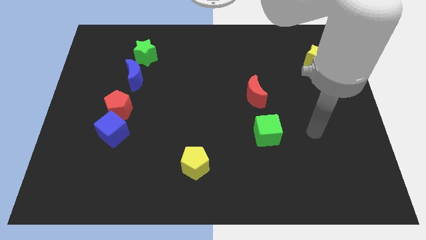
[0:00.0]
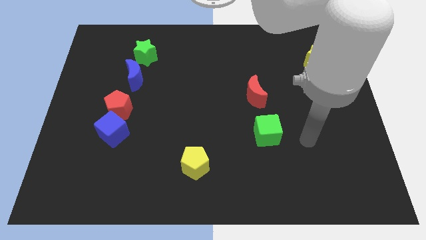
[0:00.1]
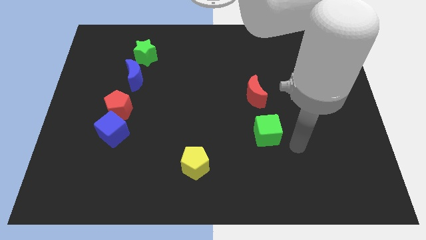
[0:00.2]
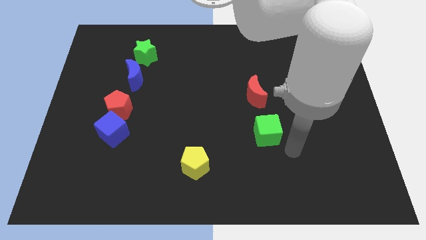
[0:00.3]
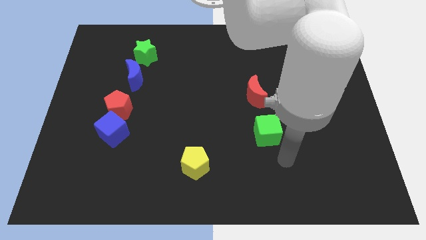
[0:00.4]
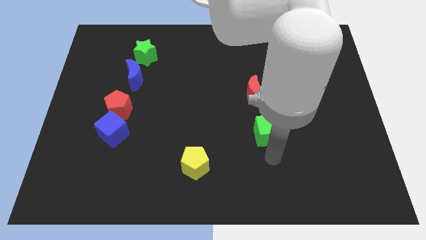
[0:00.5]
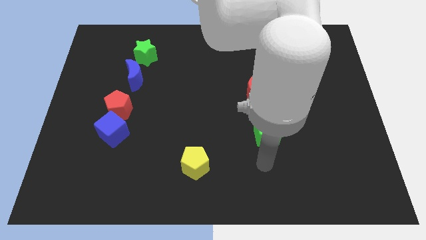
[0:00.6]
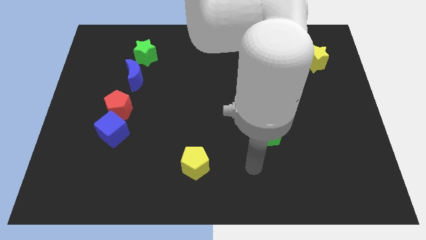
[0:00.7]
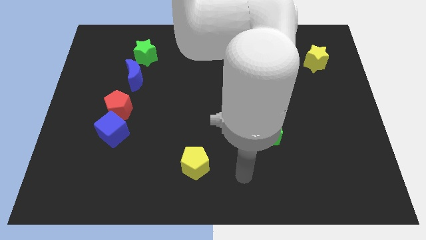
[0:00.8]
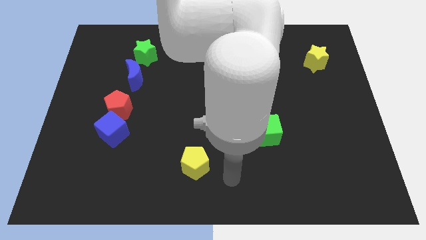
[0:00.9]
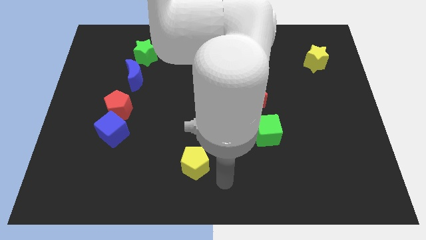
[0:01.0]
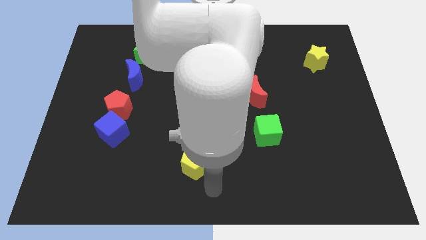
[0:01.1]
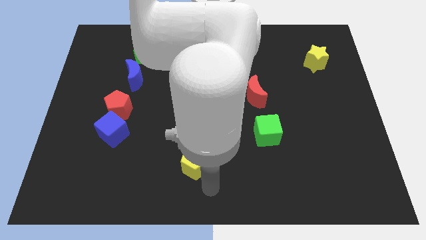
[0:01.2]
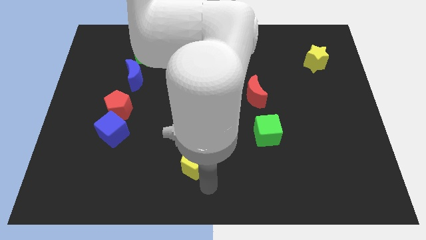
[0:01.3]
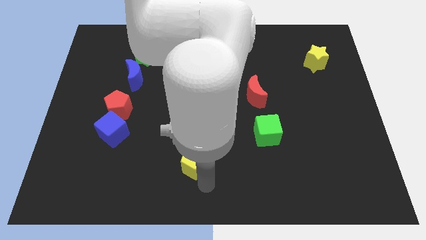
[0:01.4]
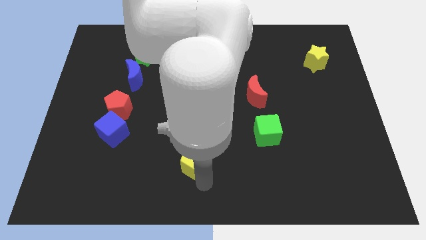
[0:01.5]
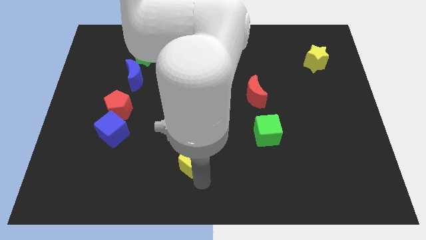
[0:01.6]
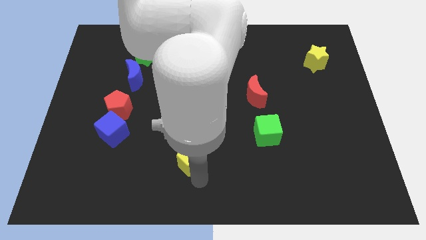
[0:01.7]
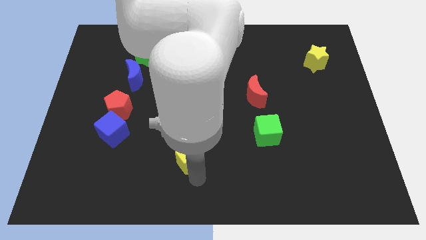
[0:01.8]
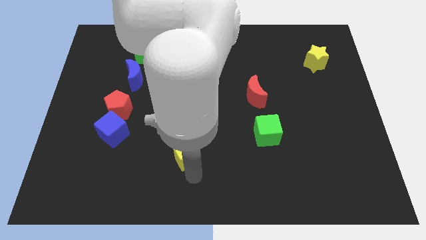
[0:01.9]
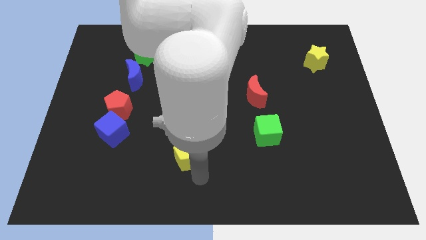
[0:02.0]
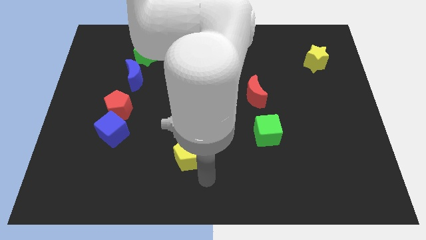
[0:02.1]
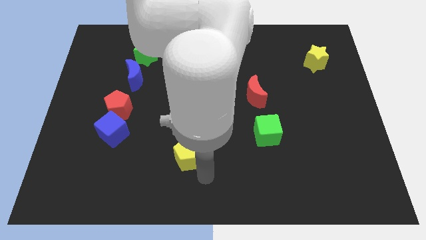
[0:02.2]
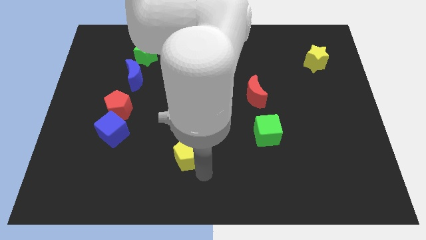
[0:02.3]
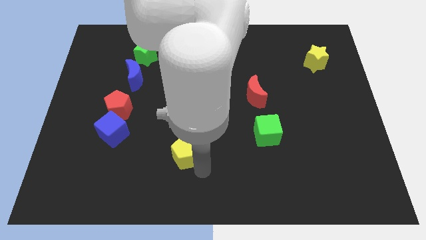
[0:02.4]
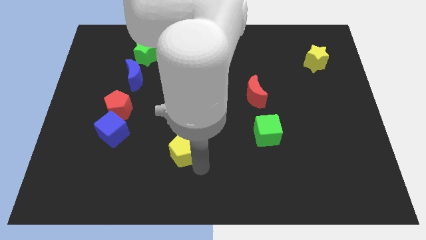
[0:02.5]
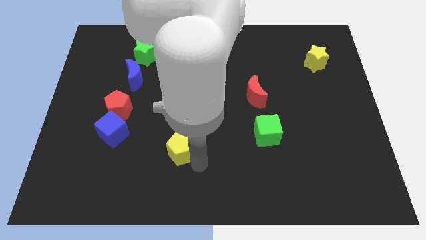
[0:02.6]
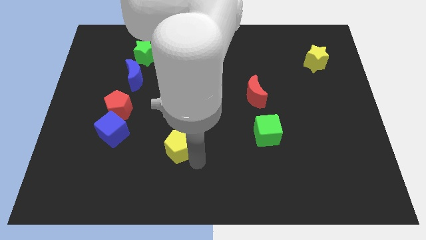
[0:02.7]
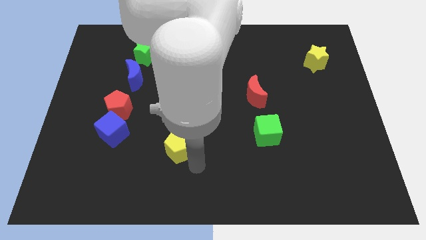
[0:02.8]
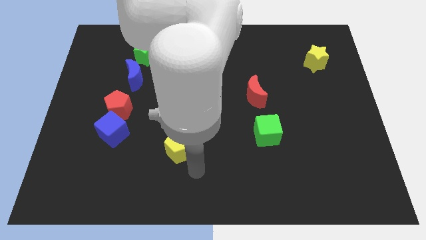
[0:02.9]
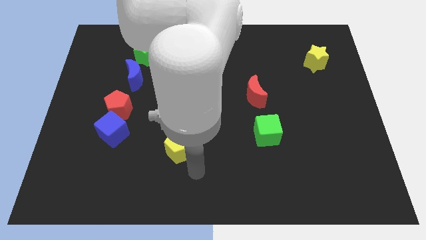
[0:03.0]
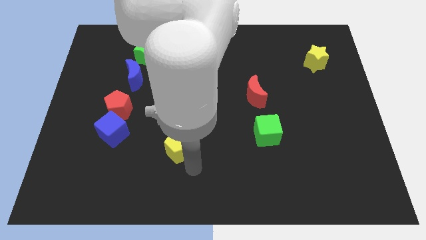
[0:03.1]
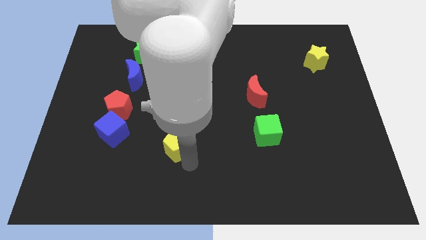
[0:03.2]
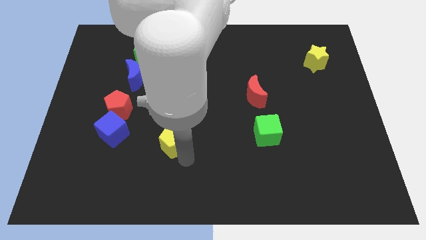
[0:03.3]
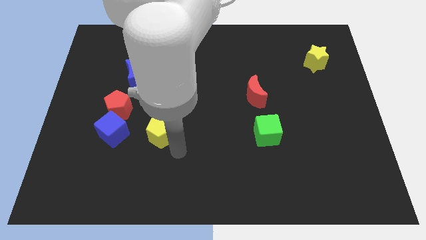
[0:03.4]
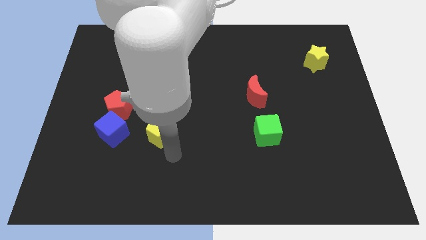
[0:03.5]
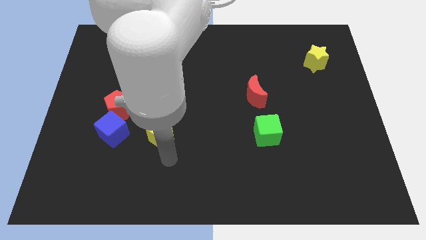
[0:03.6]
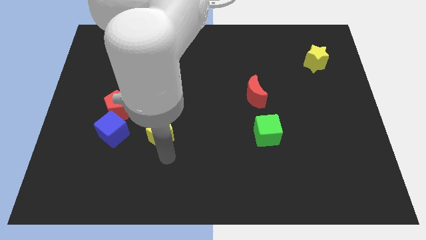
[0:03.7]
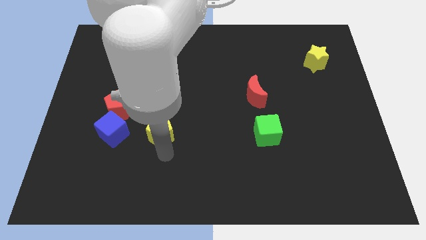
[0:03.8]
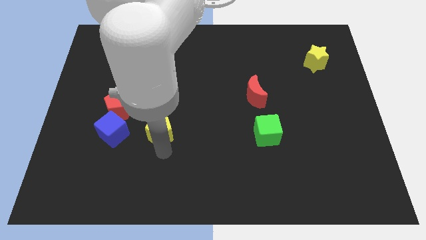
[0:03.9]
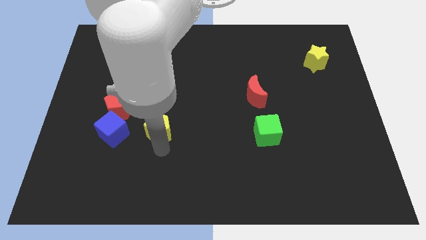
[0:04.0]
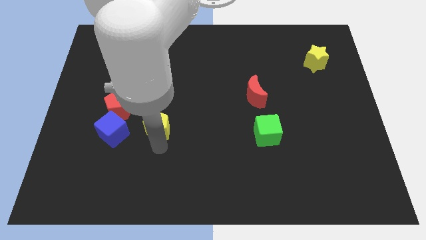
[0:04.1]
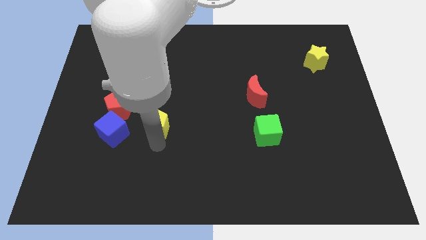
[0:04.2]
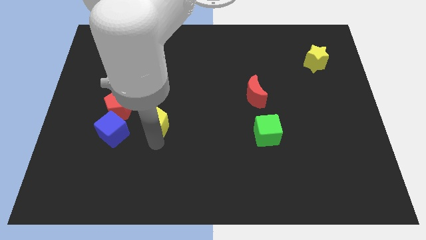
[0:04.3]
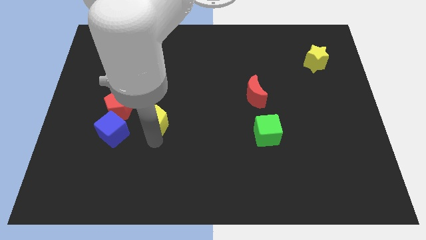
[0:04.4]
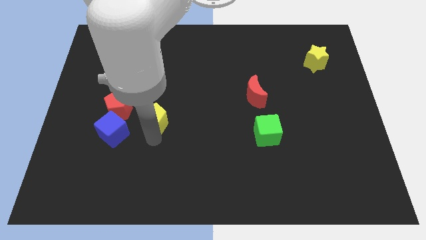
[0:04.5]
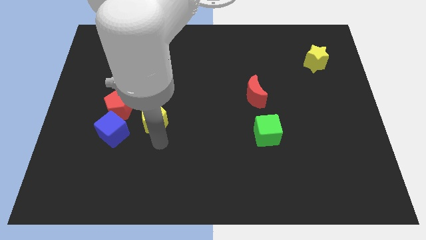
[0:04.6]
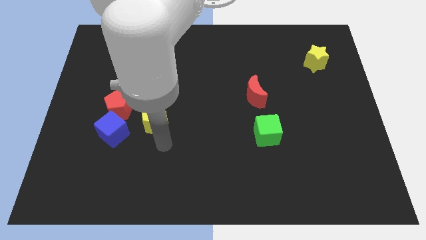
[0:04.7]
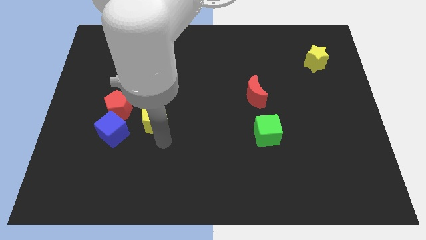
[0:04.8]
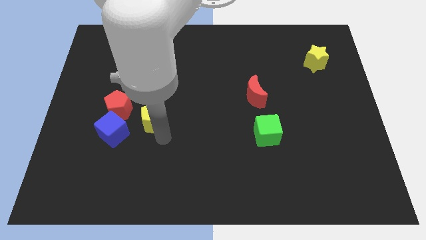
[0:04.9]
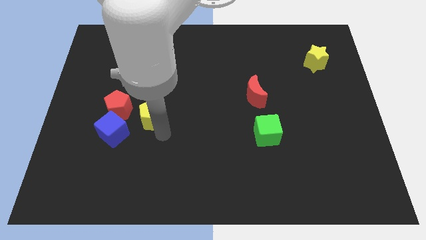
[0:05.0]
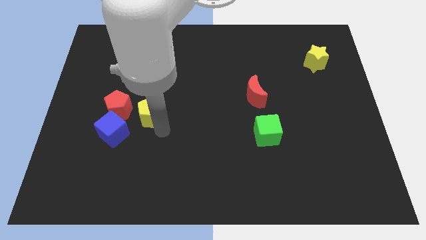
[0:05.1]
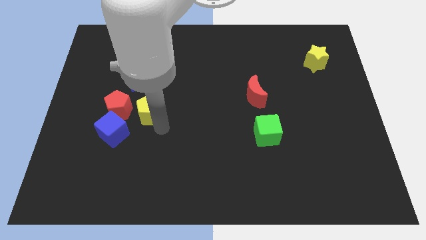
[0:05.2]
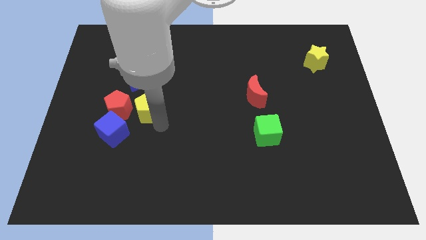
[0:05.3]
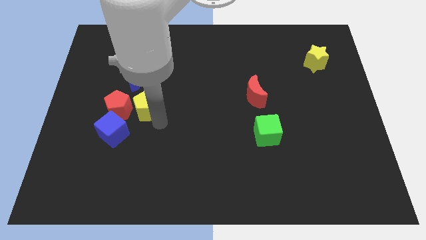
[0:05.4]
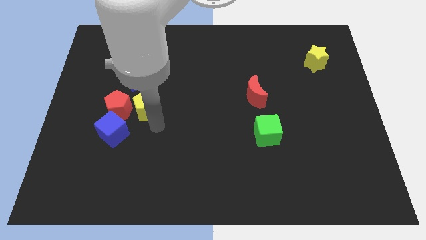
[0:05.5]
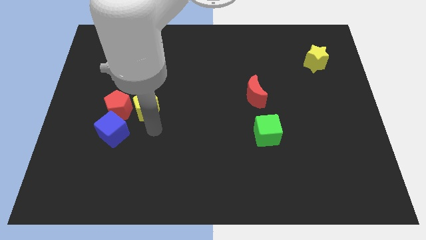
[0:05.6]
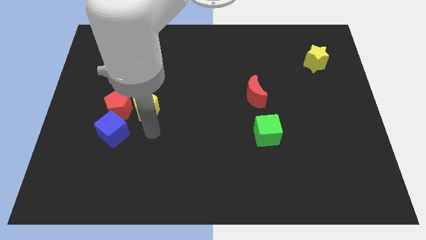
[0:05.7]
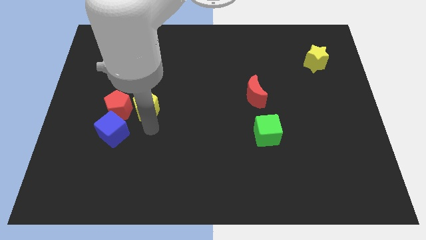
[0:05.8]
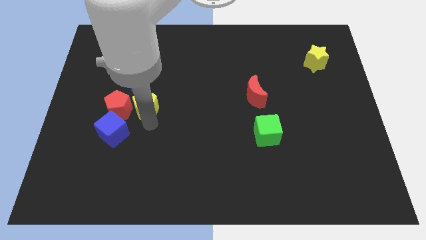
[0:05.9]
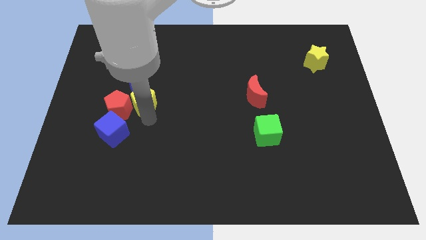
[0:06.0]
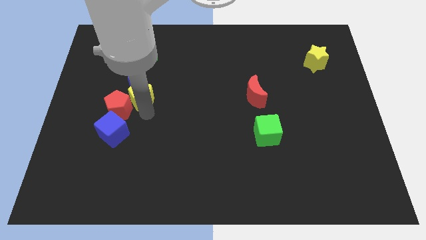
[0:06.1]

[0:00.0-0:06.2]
slide the yellow pentagon below the green star

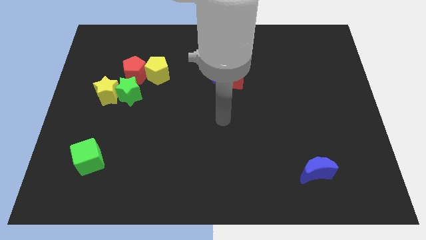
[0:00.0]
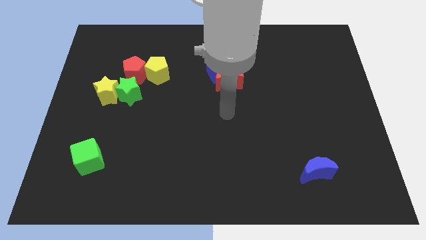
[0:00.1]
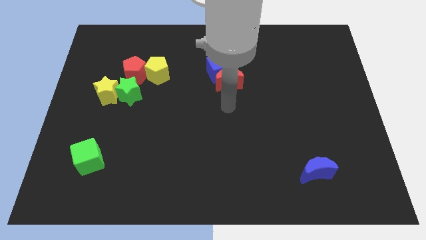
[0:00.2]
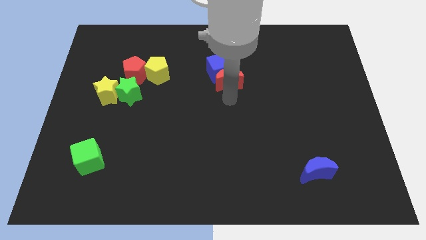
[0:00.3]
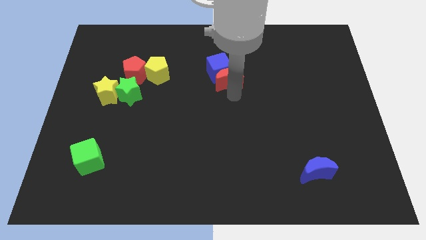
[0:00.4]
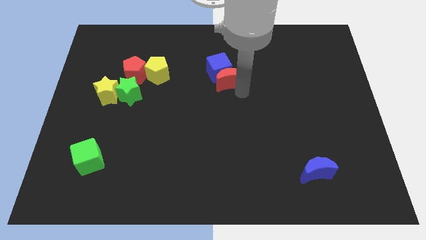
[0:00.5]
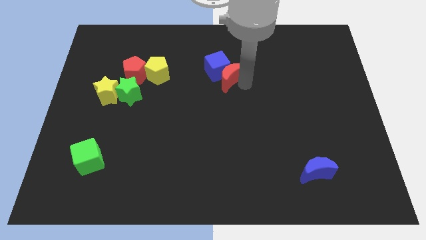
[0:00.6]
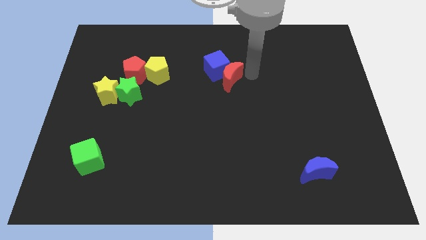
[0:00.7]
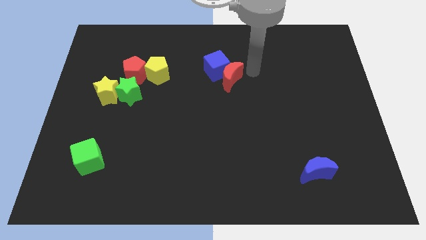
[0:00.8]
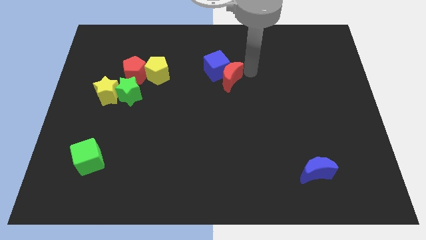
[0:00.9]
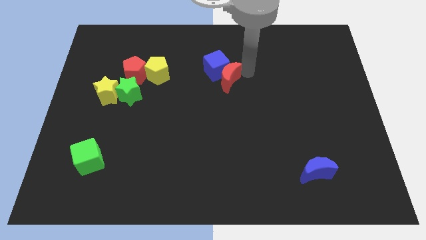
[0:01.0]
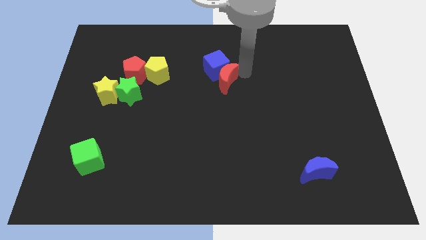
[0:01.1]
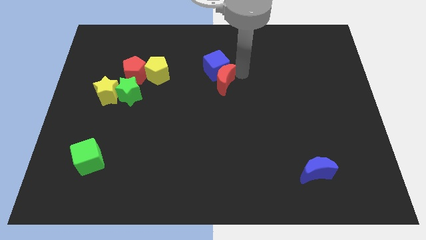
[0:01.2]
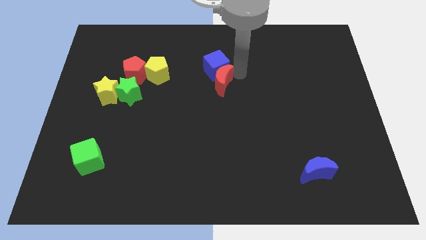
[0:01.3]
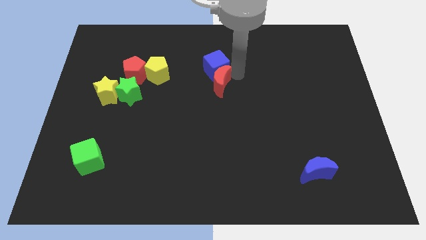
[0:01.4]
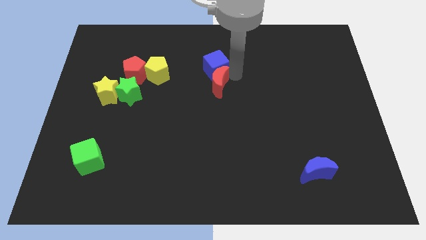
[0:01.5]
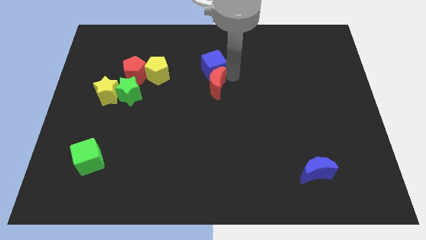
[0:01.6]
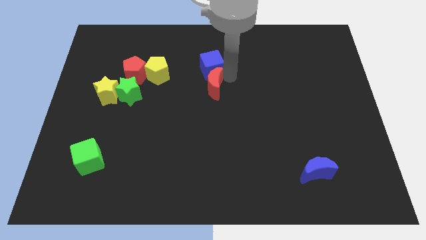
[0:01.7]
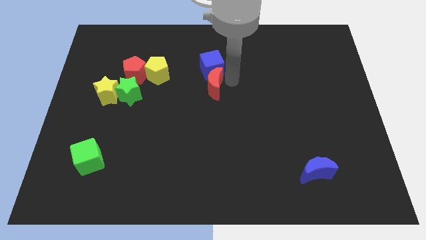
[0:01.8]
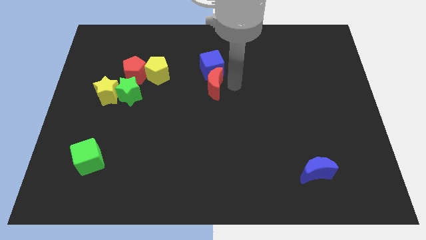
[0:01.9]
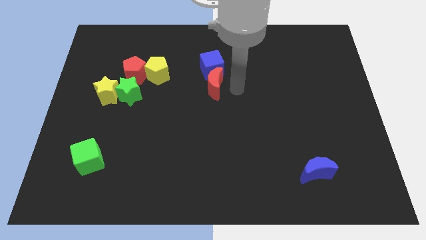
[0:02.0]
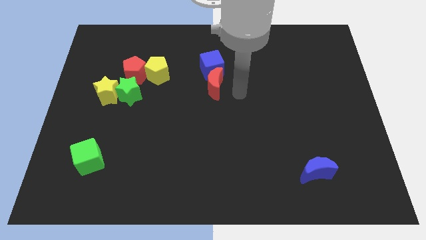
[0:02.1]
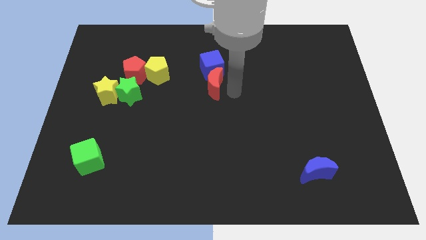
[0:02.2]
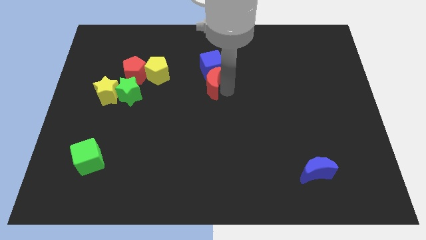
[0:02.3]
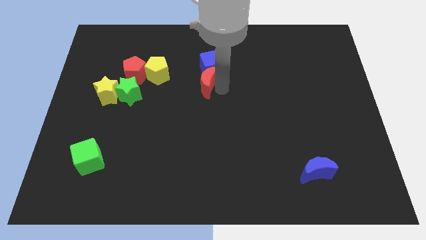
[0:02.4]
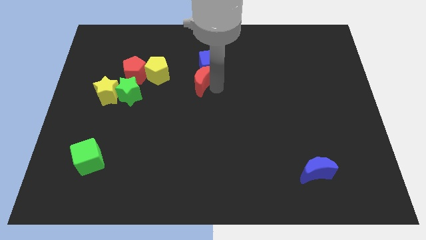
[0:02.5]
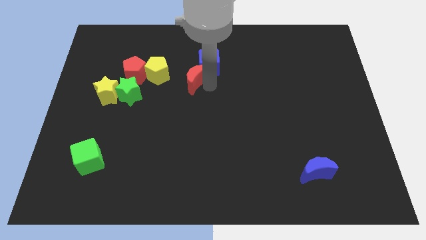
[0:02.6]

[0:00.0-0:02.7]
put the red moon to the right side of the red pentagon
